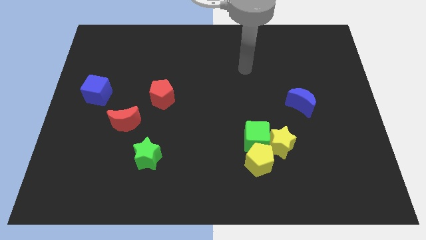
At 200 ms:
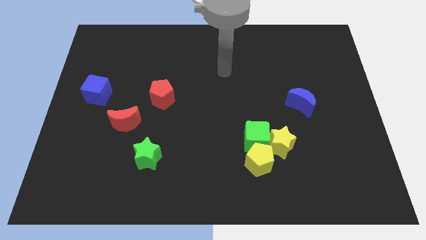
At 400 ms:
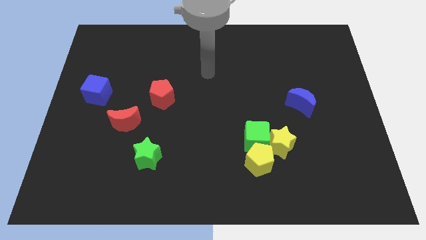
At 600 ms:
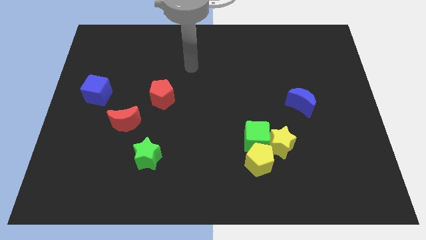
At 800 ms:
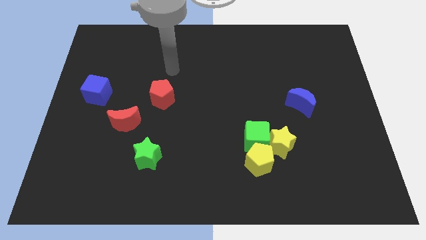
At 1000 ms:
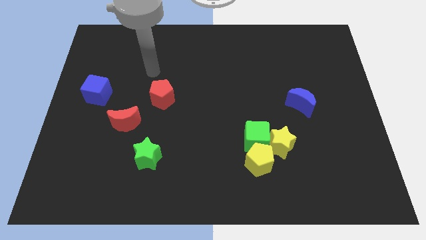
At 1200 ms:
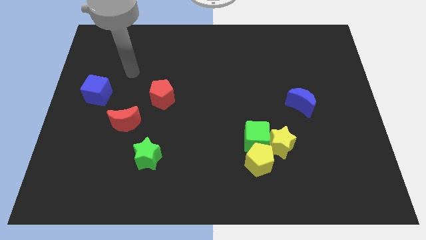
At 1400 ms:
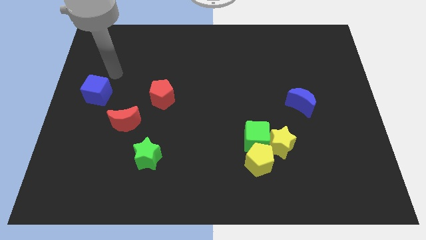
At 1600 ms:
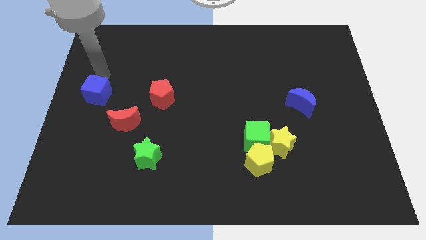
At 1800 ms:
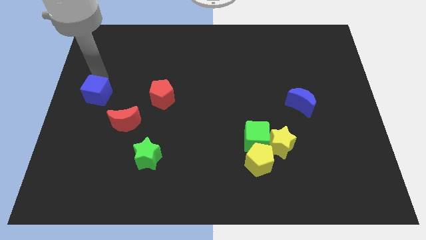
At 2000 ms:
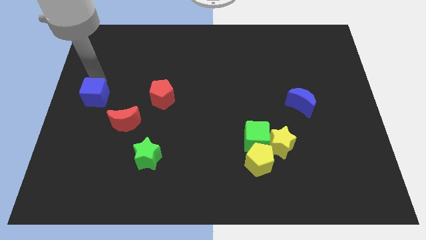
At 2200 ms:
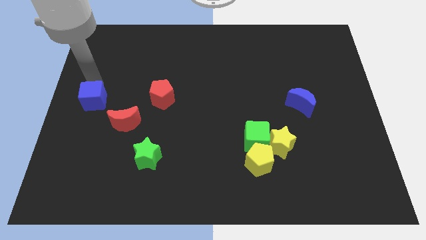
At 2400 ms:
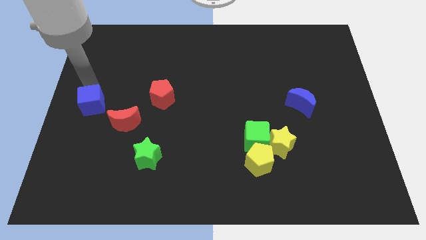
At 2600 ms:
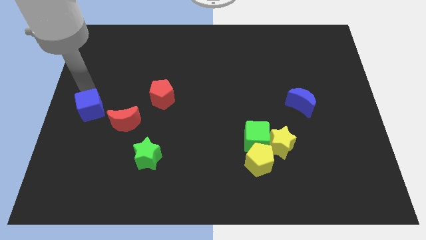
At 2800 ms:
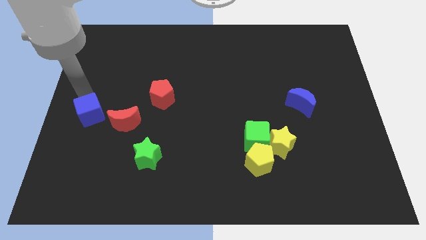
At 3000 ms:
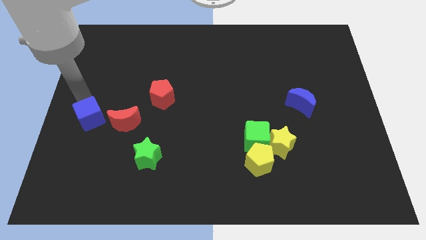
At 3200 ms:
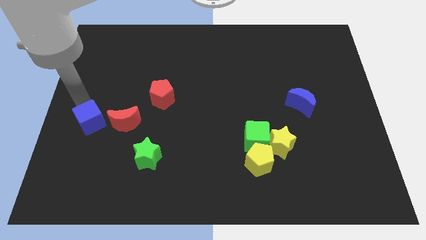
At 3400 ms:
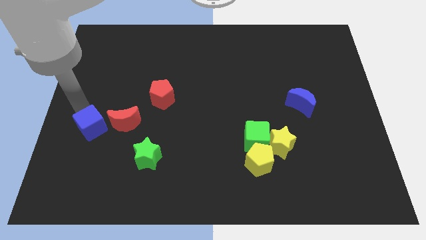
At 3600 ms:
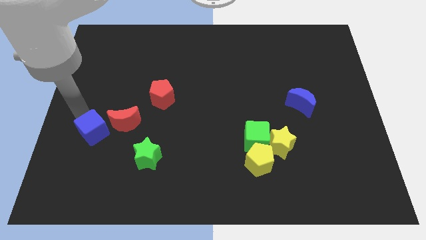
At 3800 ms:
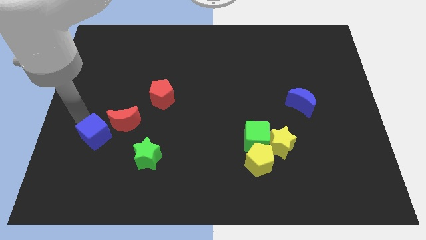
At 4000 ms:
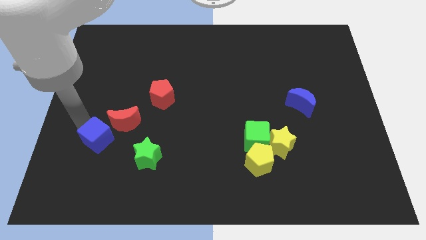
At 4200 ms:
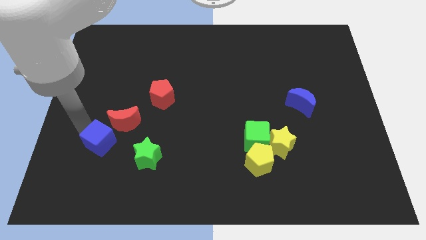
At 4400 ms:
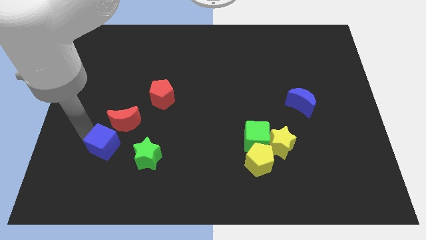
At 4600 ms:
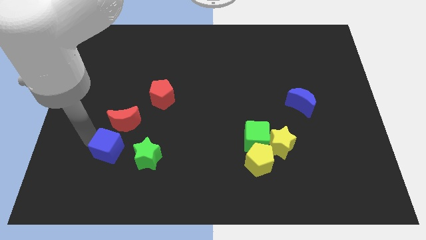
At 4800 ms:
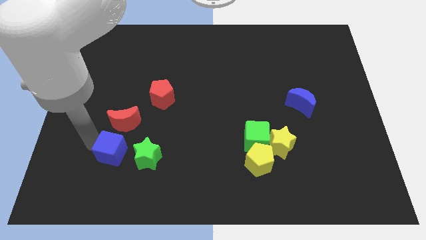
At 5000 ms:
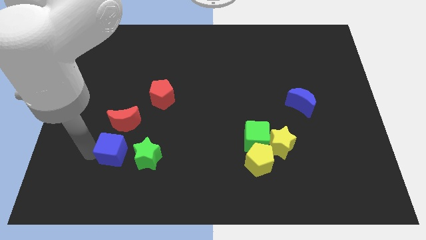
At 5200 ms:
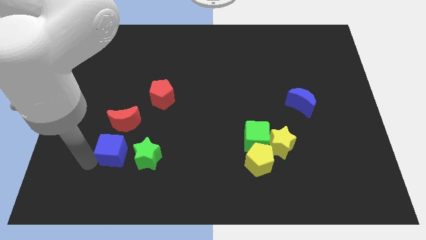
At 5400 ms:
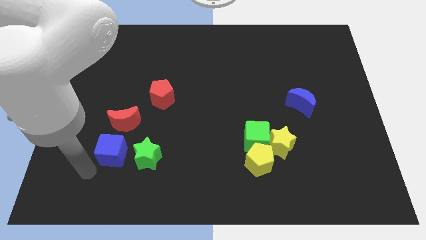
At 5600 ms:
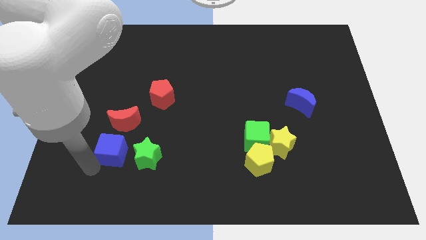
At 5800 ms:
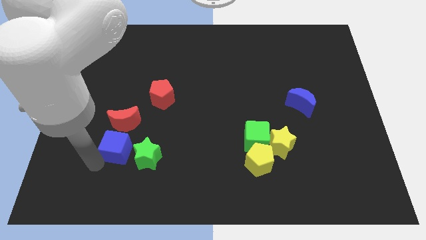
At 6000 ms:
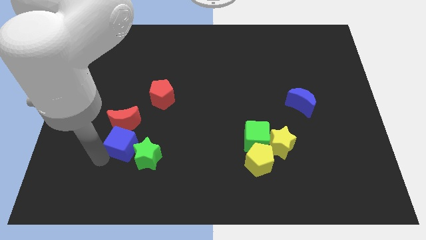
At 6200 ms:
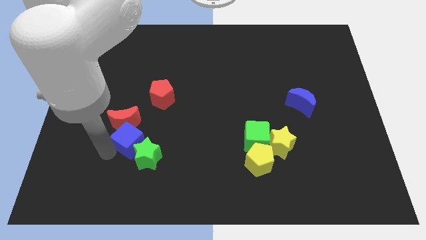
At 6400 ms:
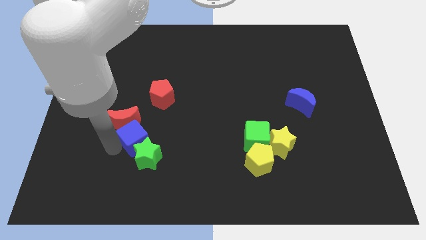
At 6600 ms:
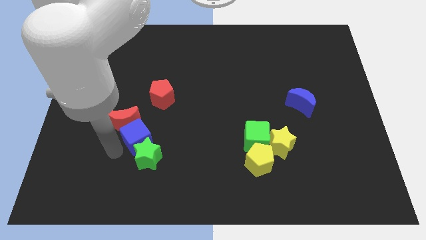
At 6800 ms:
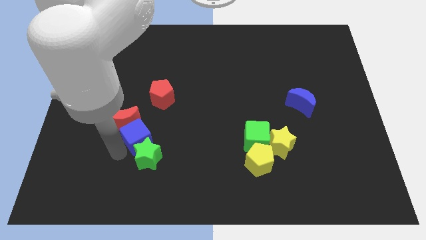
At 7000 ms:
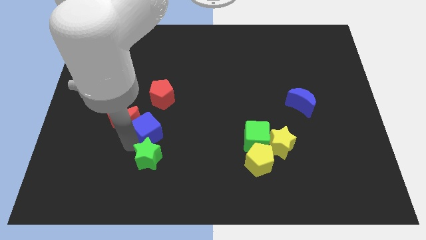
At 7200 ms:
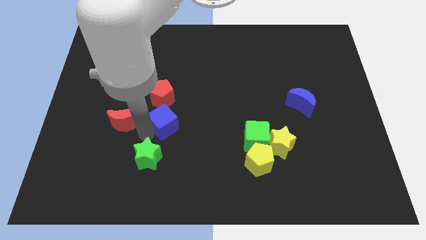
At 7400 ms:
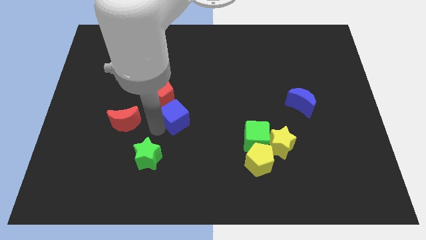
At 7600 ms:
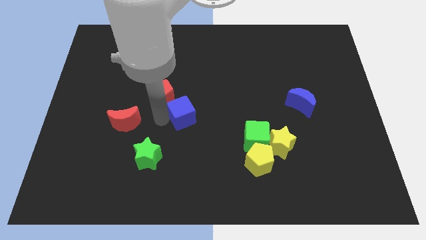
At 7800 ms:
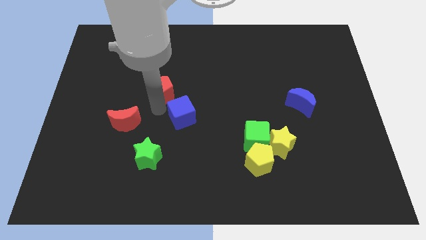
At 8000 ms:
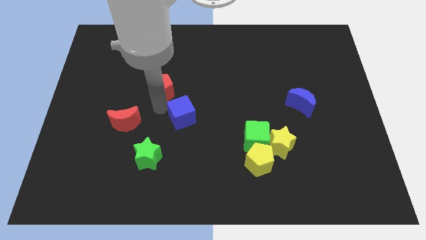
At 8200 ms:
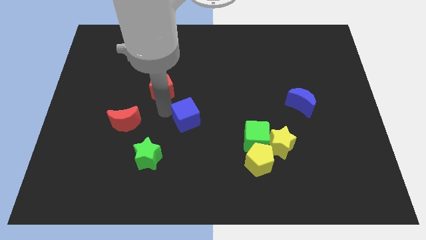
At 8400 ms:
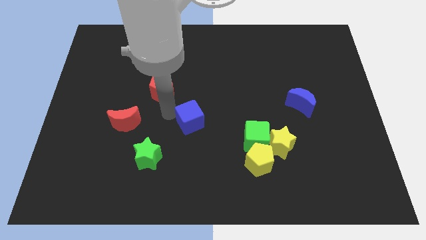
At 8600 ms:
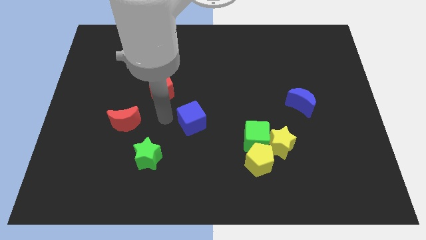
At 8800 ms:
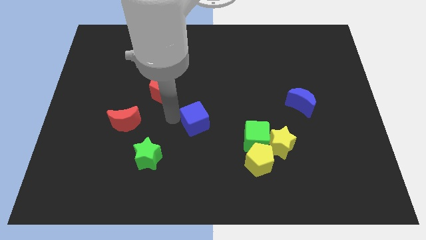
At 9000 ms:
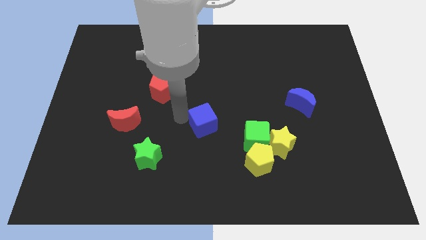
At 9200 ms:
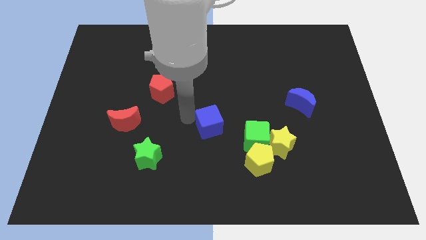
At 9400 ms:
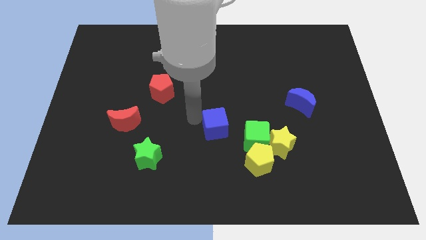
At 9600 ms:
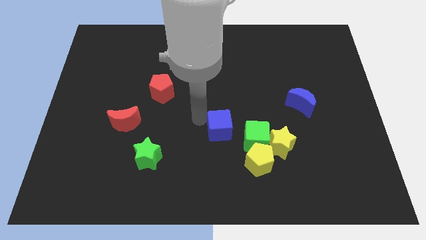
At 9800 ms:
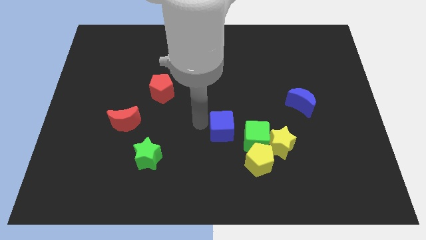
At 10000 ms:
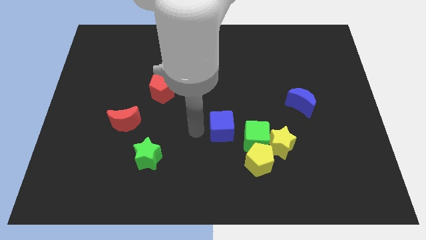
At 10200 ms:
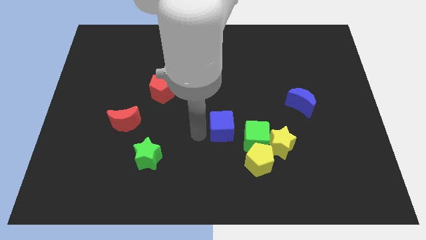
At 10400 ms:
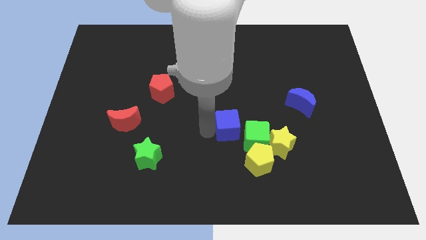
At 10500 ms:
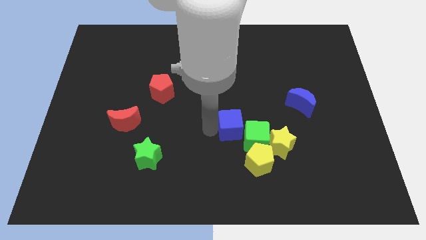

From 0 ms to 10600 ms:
move the blue cube towards the green cube

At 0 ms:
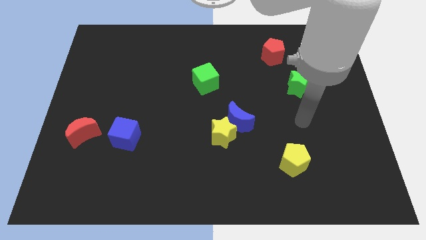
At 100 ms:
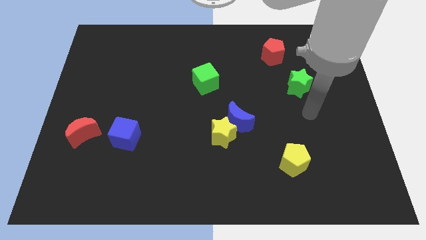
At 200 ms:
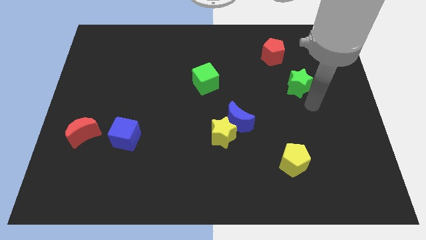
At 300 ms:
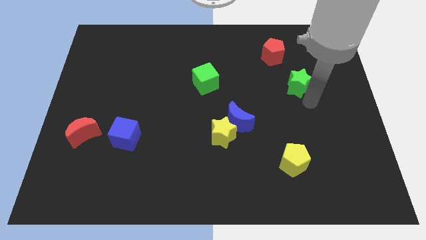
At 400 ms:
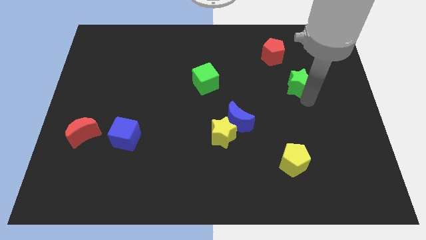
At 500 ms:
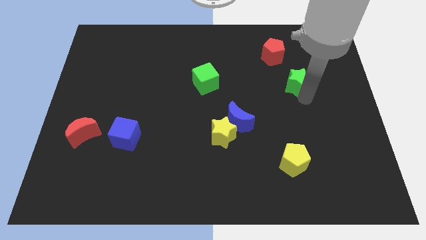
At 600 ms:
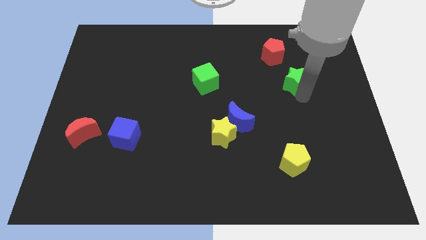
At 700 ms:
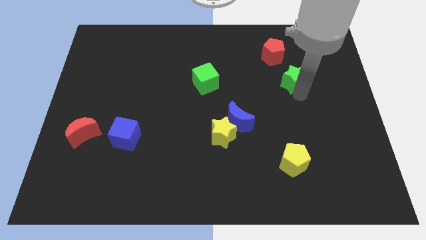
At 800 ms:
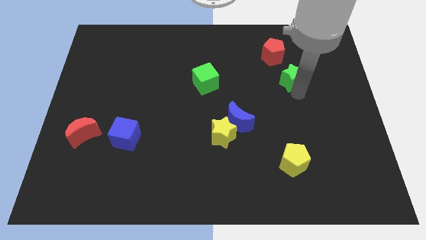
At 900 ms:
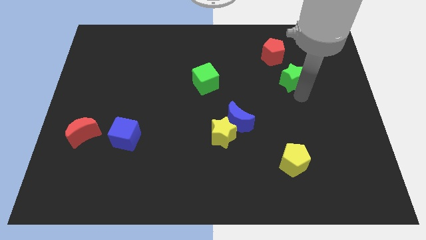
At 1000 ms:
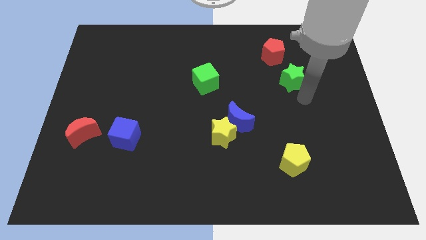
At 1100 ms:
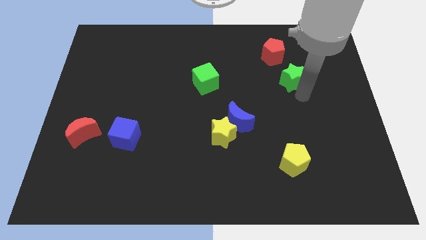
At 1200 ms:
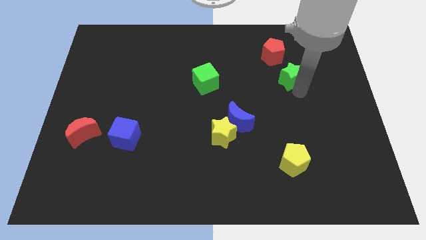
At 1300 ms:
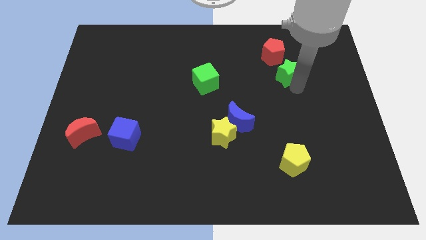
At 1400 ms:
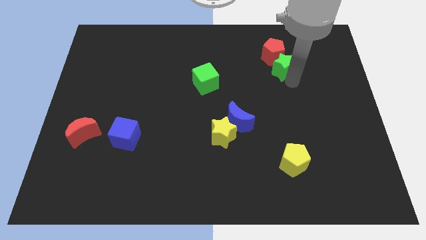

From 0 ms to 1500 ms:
push the green star next to the red pentagon
